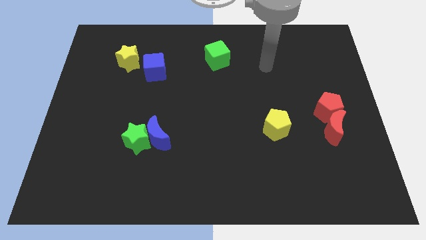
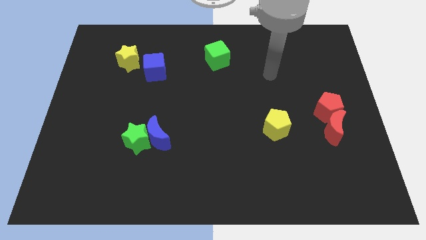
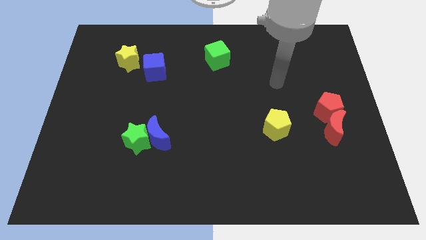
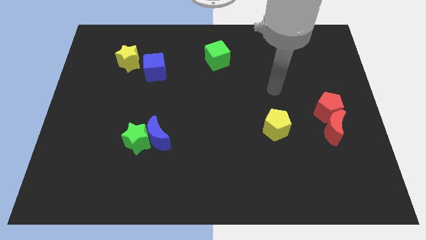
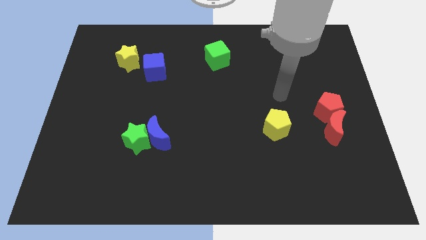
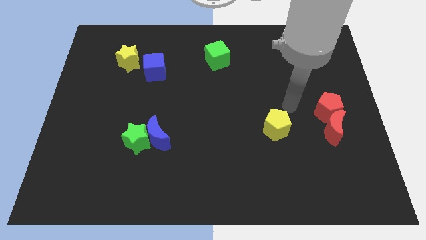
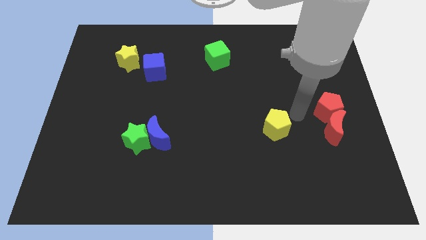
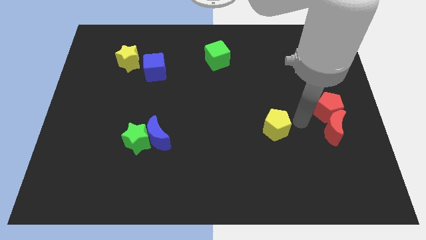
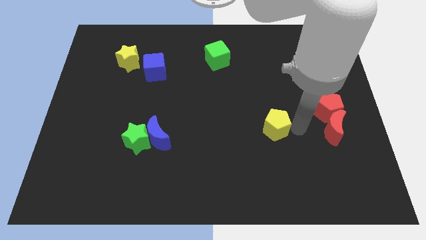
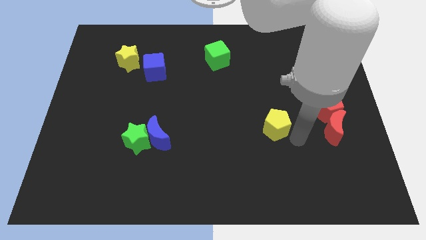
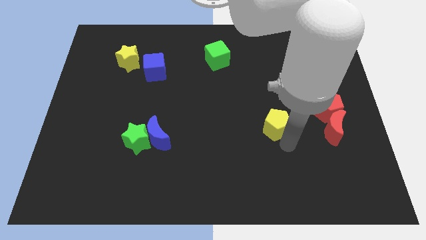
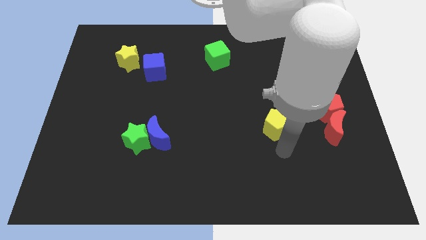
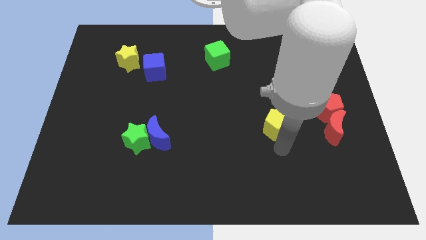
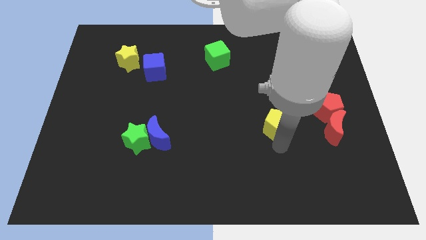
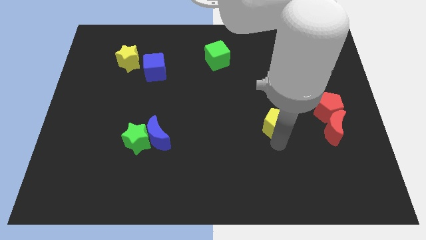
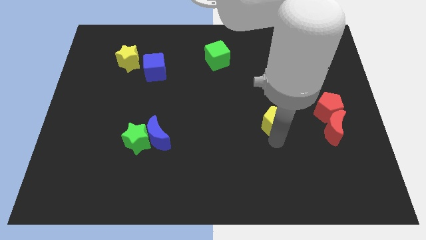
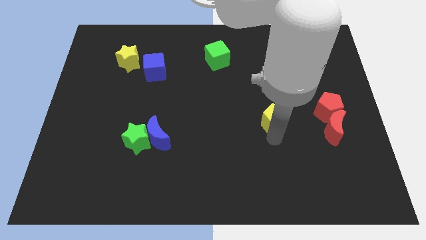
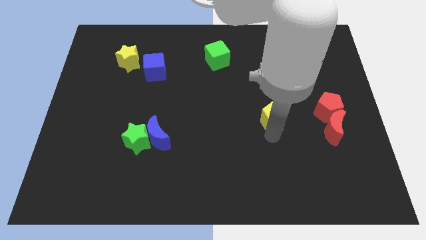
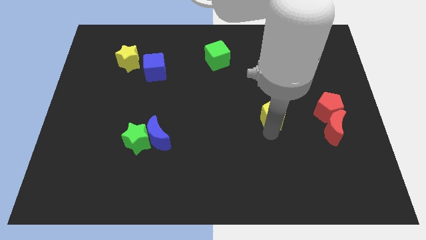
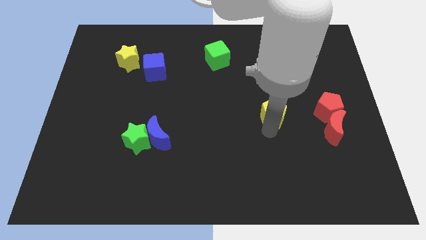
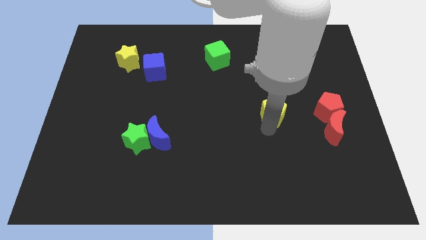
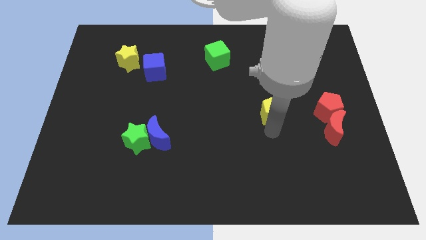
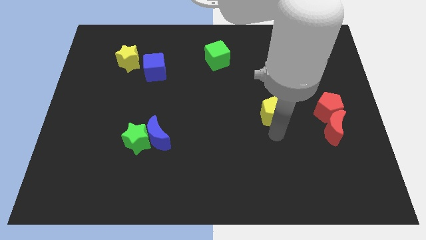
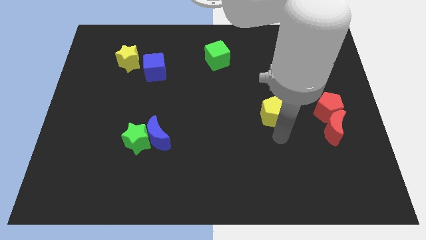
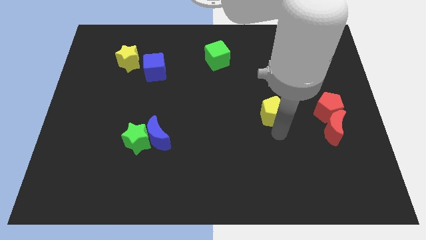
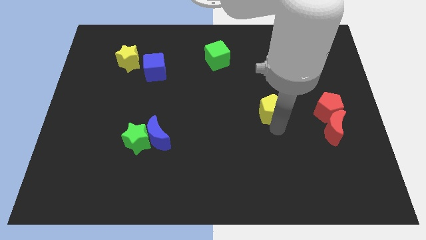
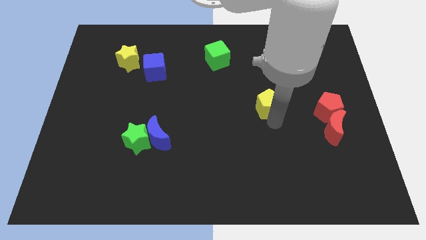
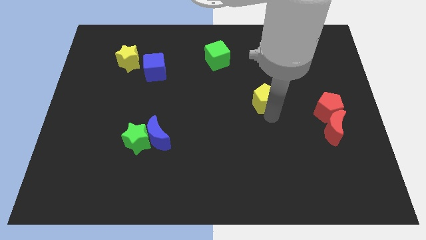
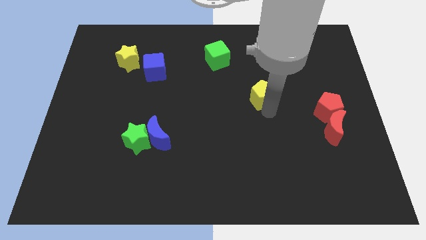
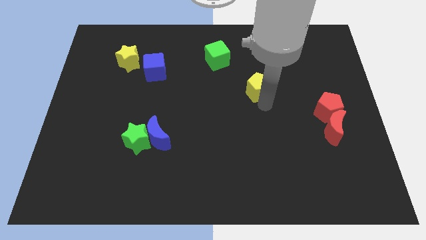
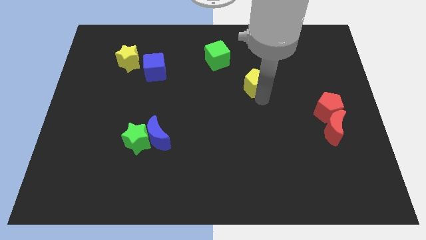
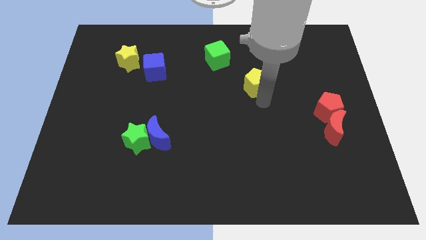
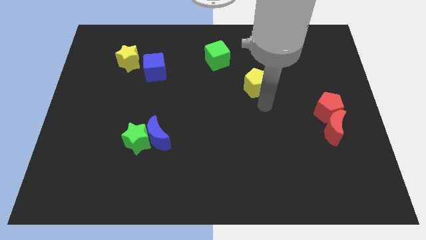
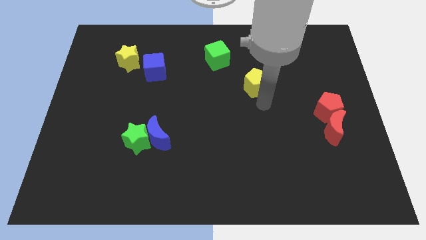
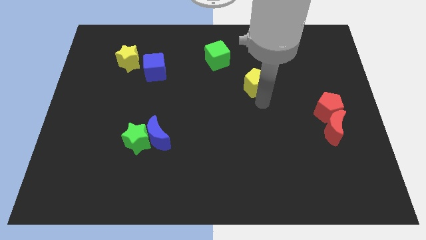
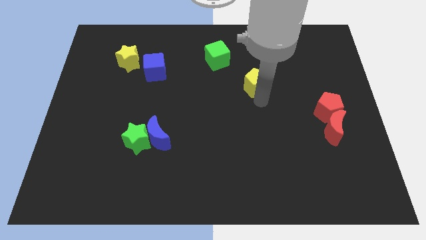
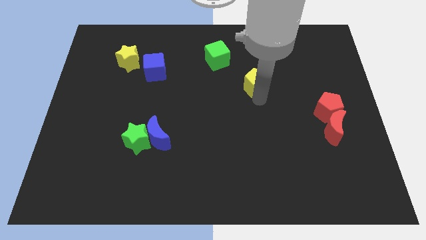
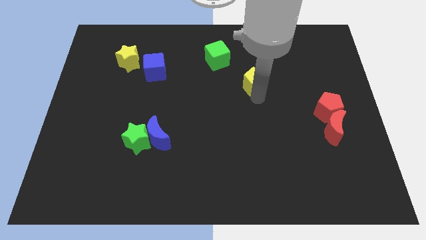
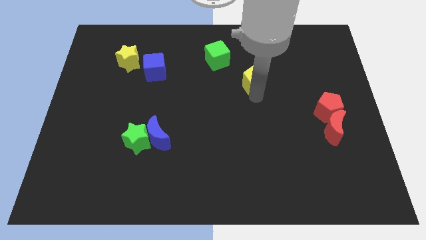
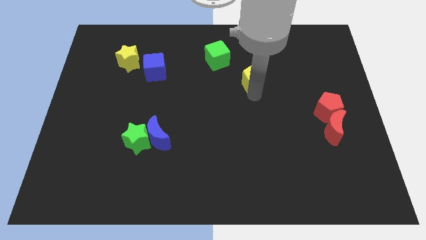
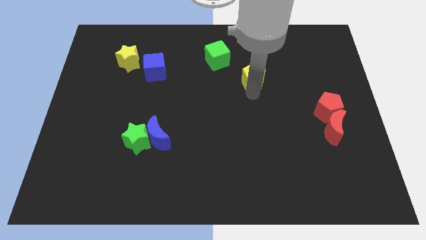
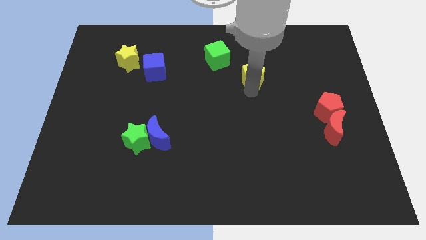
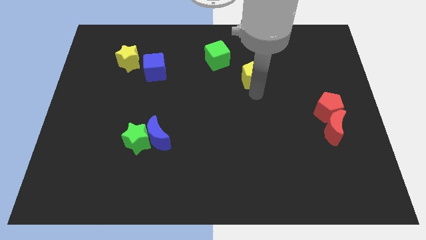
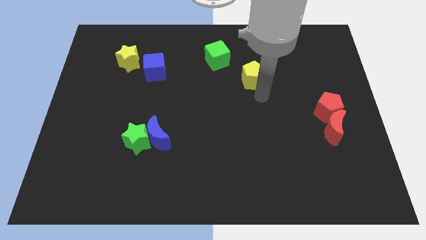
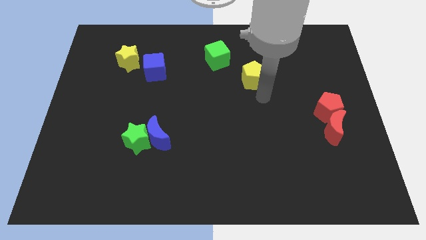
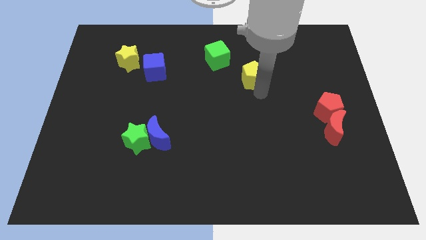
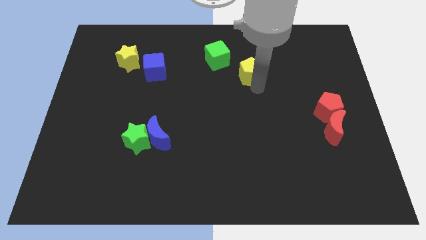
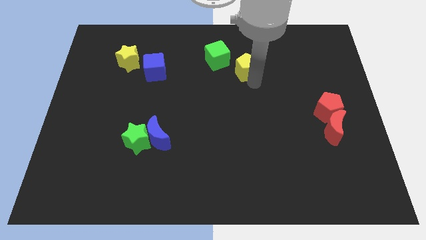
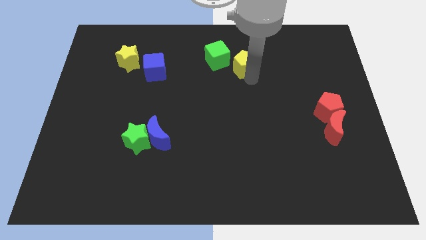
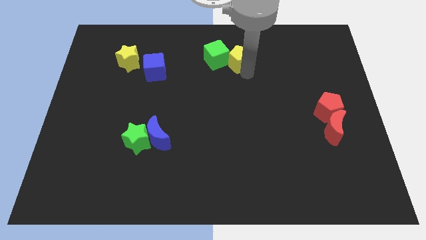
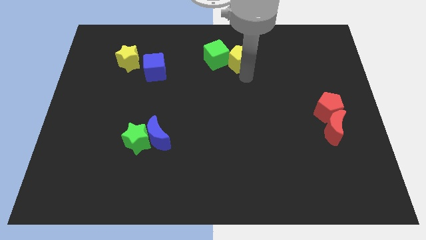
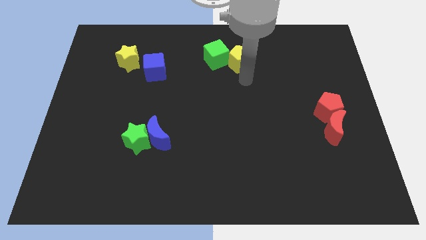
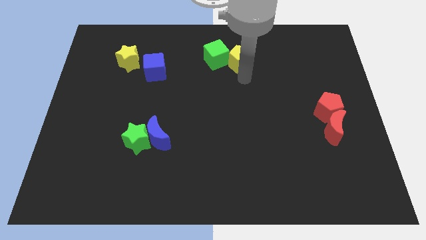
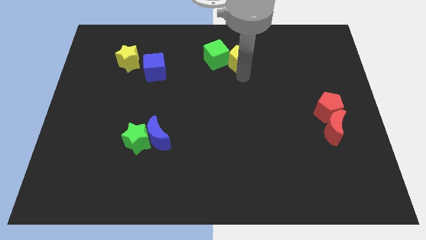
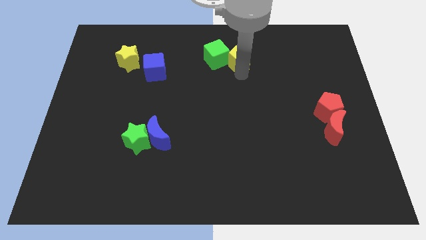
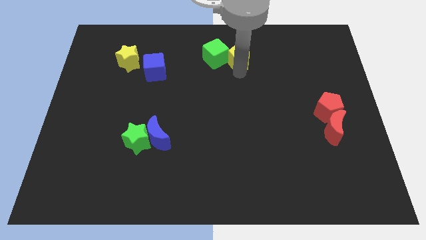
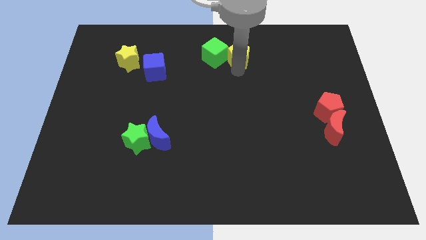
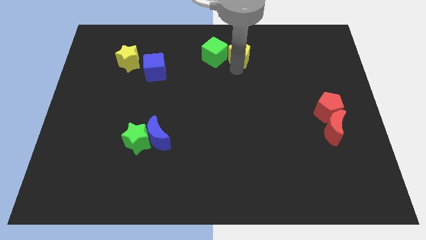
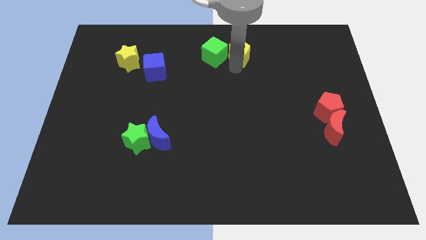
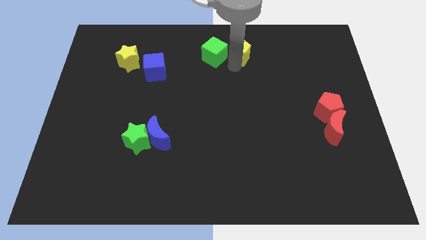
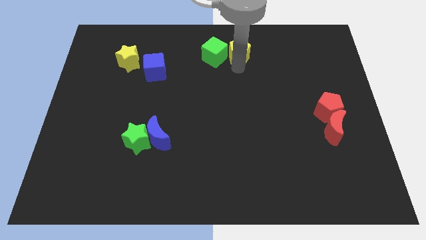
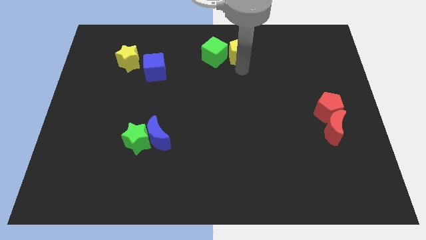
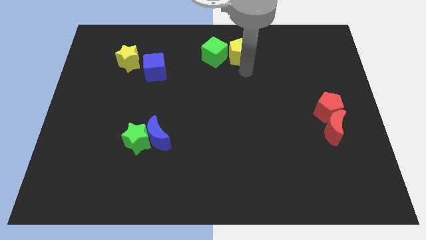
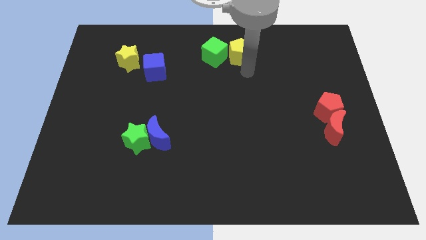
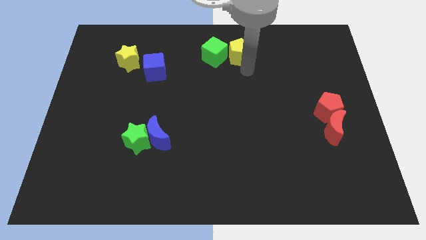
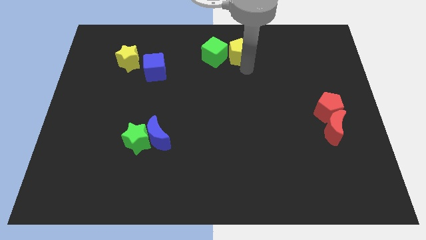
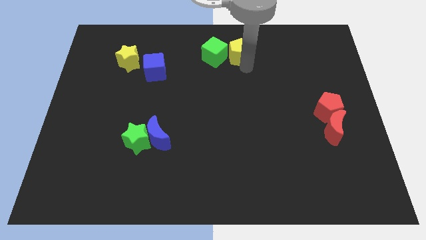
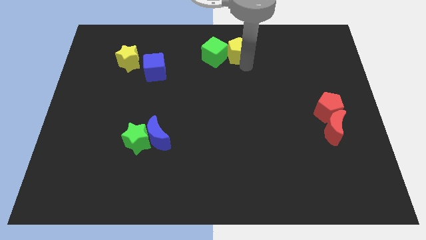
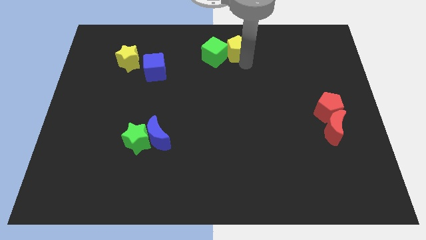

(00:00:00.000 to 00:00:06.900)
slide the yellow pentagon to the top

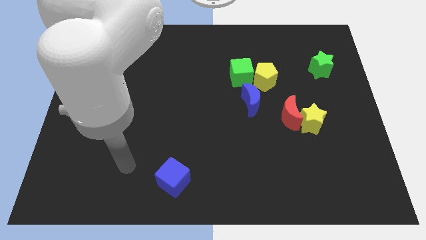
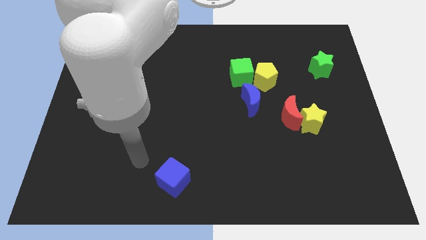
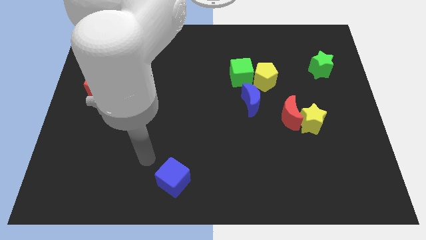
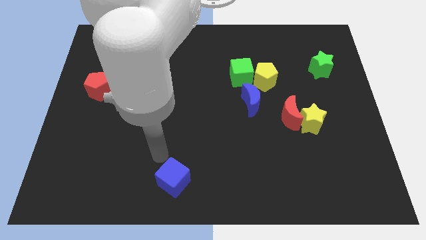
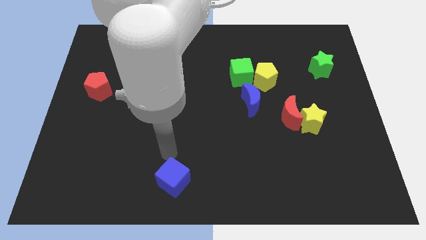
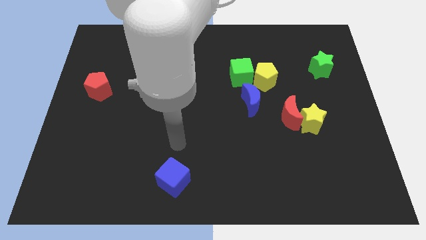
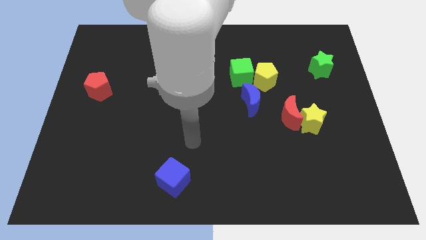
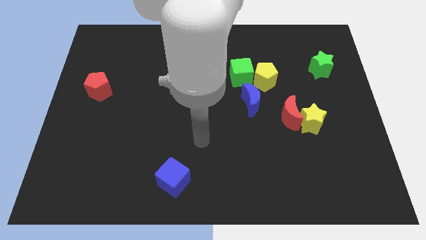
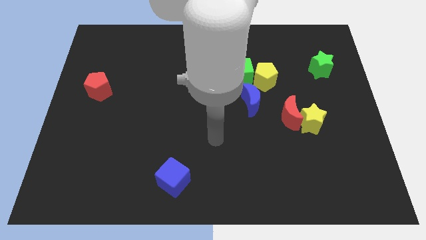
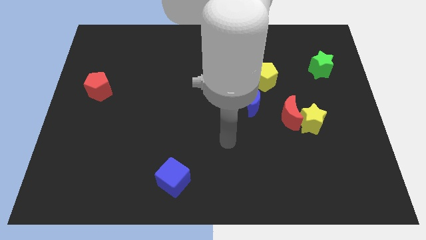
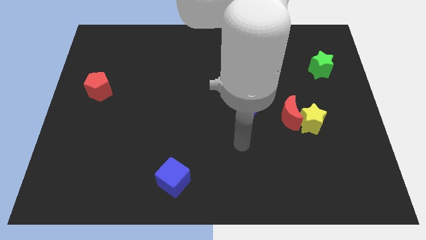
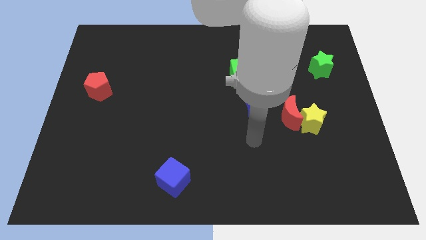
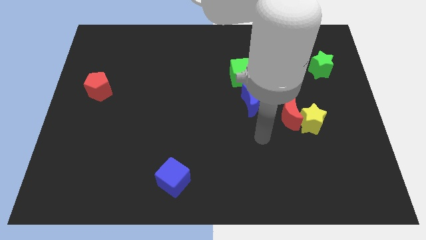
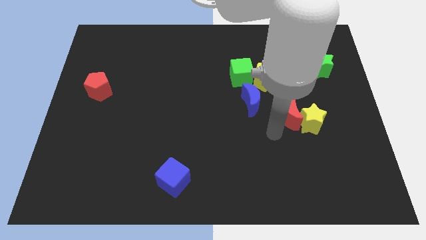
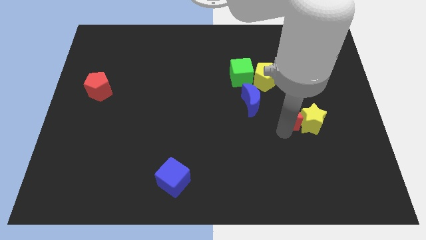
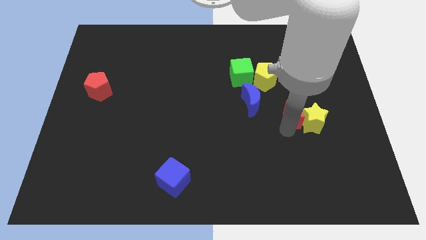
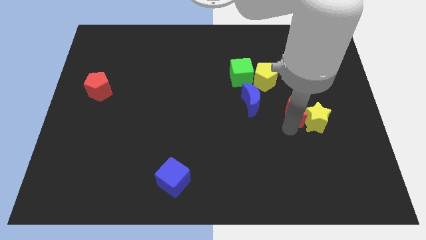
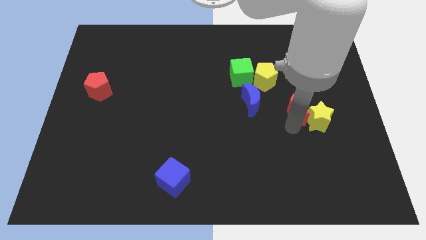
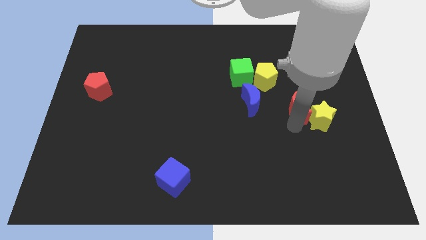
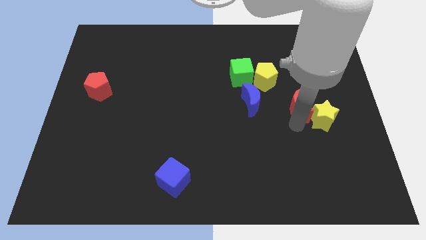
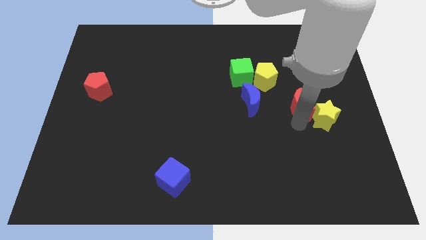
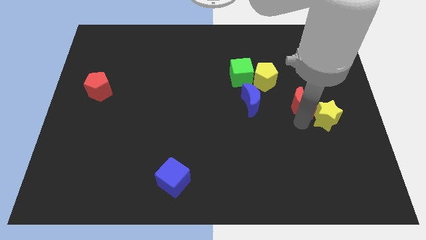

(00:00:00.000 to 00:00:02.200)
slide the yellow star to the right side of the board
